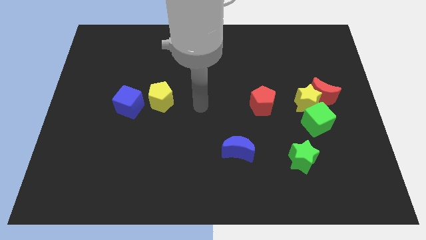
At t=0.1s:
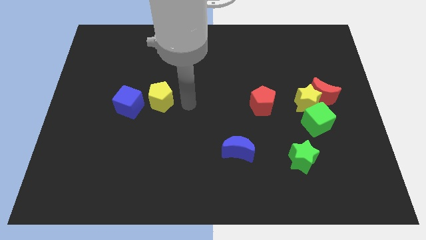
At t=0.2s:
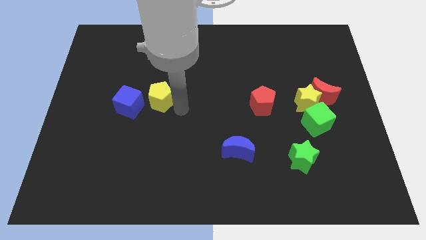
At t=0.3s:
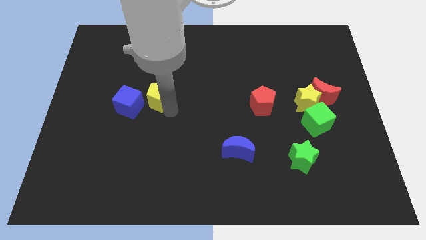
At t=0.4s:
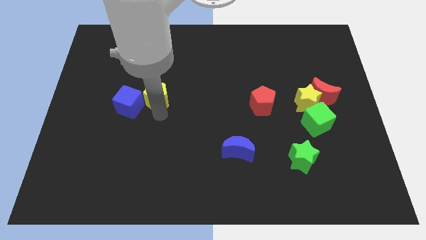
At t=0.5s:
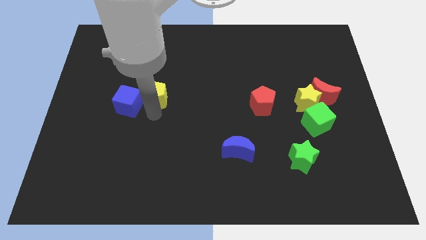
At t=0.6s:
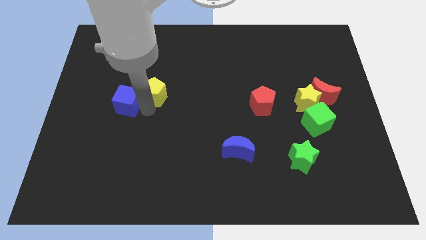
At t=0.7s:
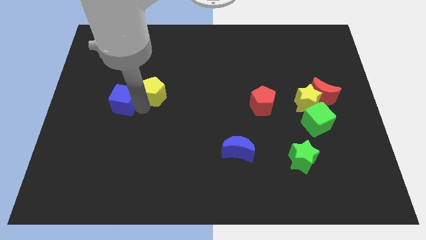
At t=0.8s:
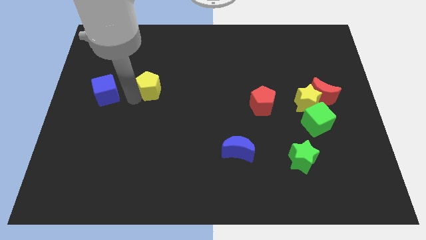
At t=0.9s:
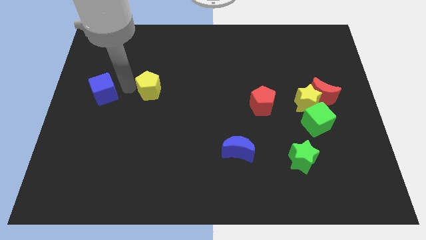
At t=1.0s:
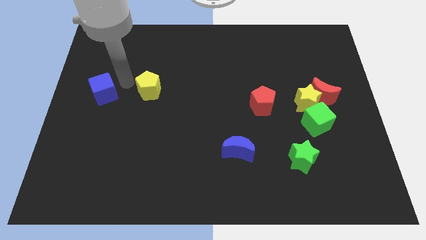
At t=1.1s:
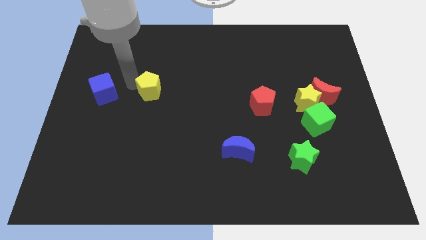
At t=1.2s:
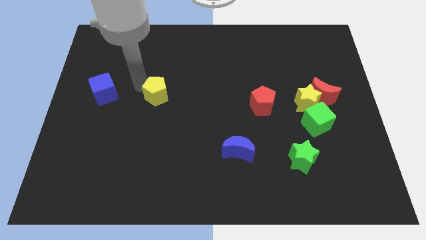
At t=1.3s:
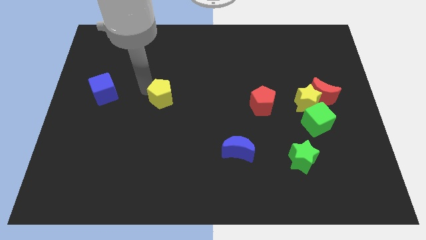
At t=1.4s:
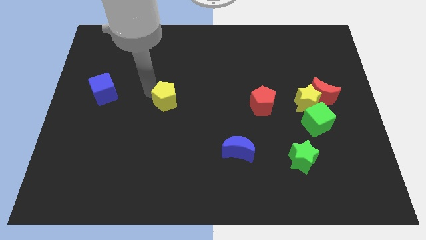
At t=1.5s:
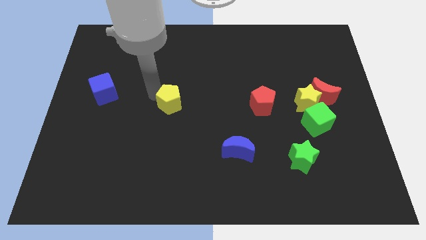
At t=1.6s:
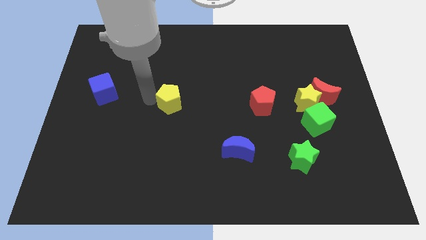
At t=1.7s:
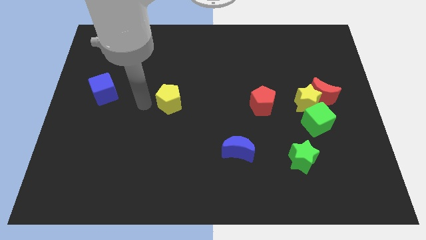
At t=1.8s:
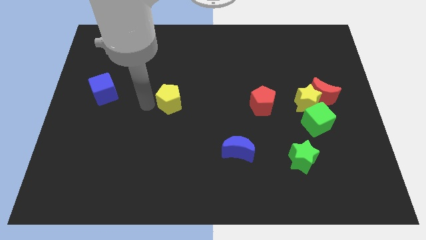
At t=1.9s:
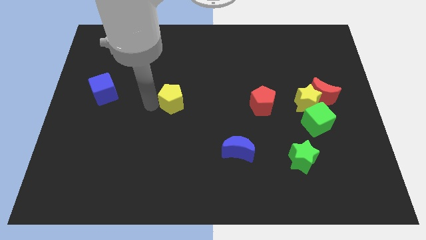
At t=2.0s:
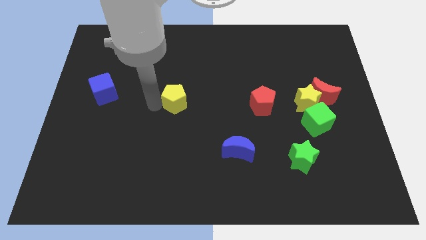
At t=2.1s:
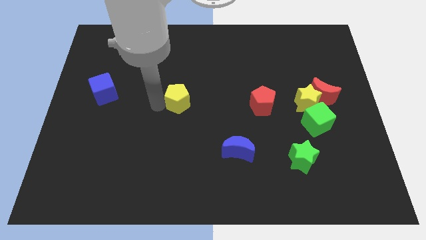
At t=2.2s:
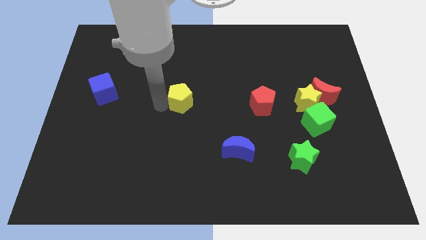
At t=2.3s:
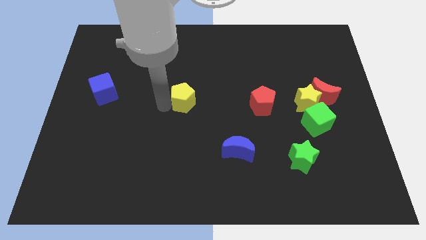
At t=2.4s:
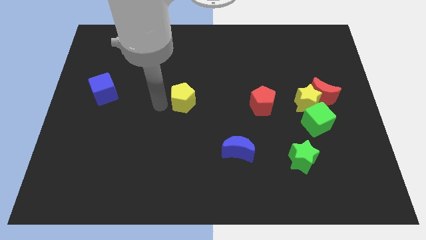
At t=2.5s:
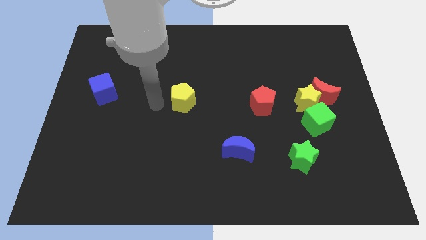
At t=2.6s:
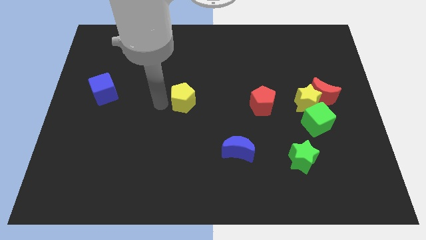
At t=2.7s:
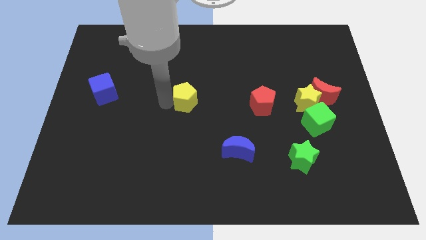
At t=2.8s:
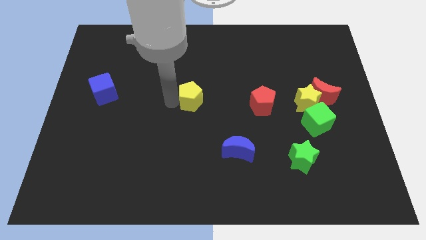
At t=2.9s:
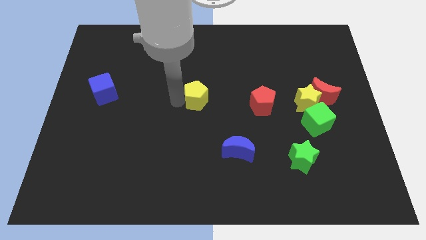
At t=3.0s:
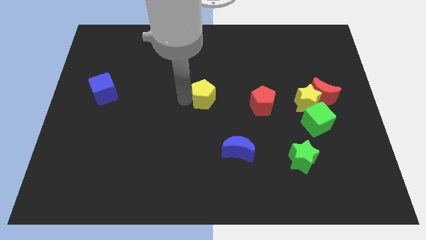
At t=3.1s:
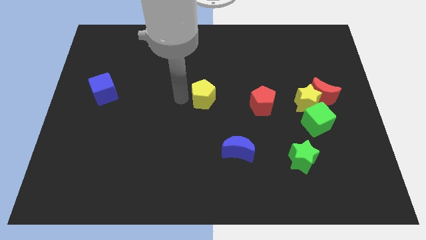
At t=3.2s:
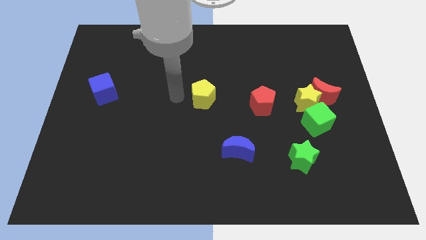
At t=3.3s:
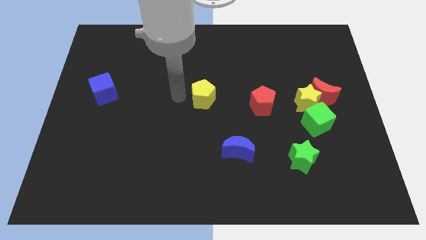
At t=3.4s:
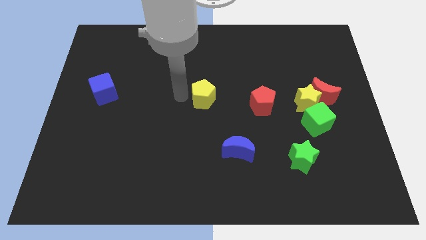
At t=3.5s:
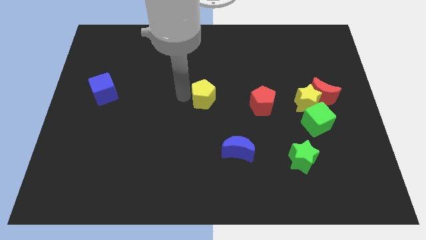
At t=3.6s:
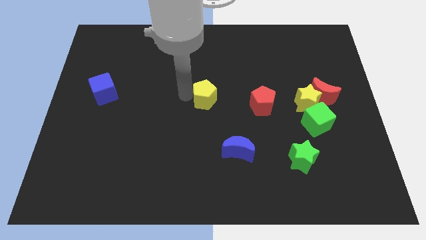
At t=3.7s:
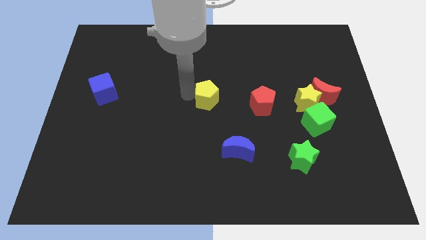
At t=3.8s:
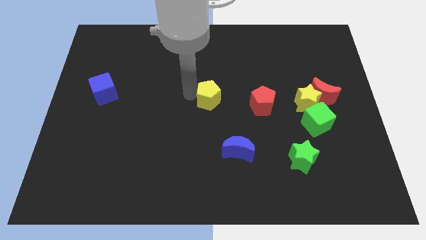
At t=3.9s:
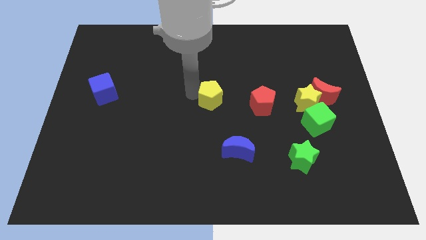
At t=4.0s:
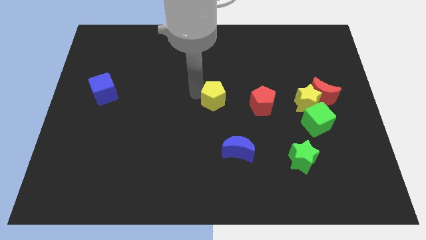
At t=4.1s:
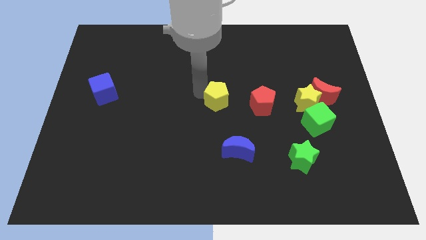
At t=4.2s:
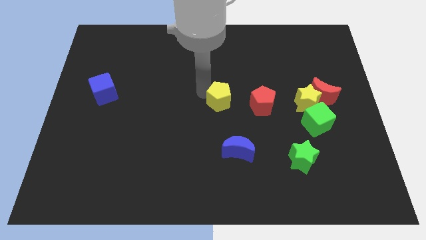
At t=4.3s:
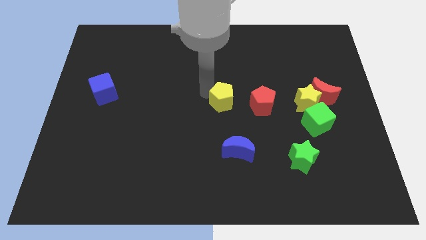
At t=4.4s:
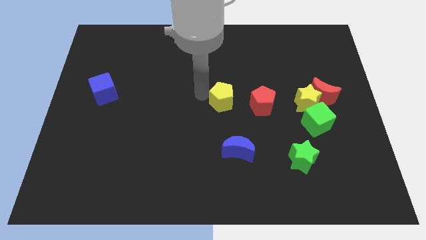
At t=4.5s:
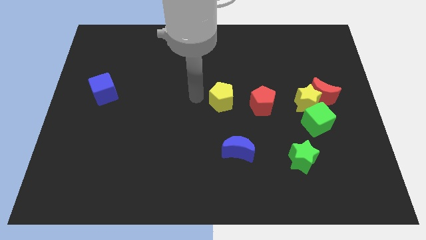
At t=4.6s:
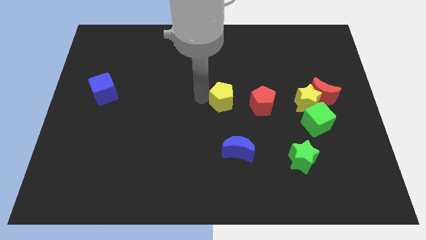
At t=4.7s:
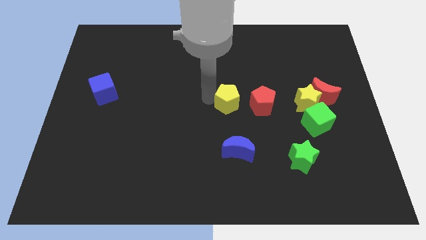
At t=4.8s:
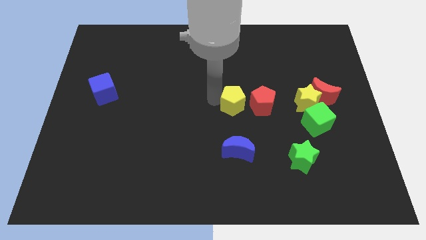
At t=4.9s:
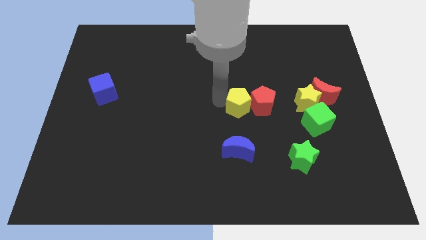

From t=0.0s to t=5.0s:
move the yellow pentagon next to the red pentagon

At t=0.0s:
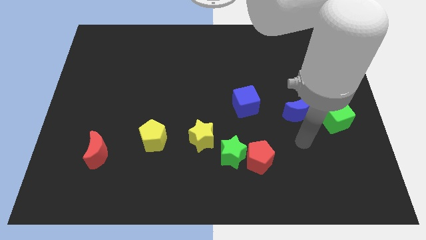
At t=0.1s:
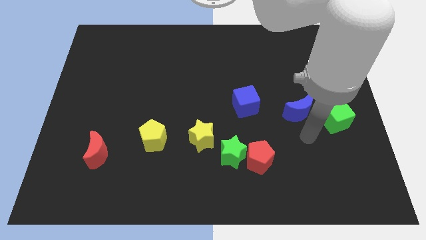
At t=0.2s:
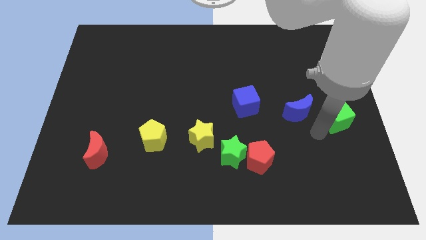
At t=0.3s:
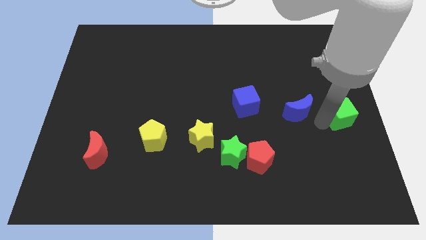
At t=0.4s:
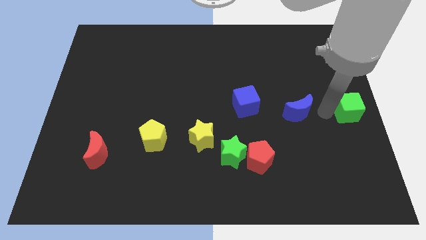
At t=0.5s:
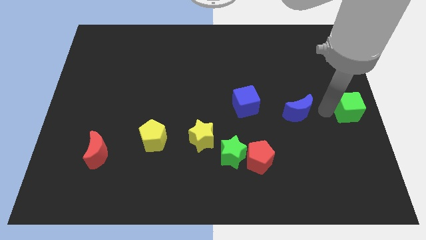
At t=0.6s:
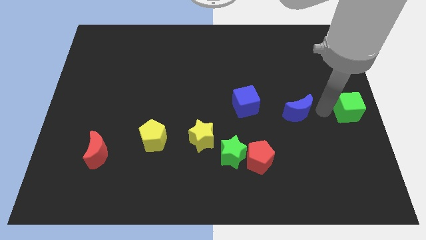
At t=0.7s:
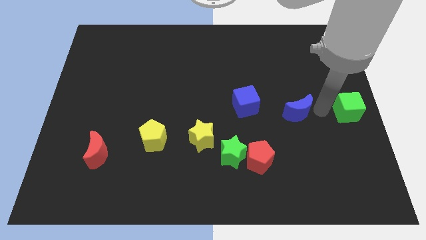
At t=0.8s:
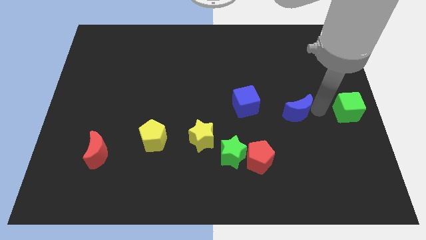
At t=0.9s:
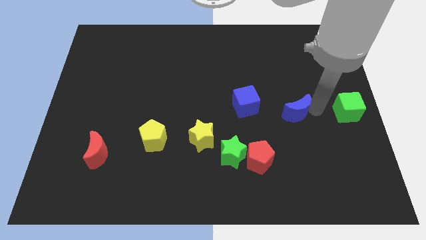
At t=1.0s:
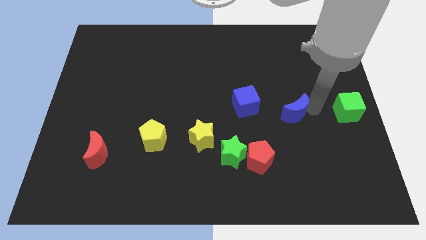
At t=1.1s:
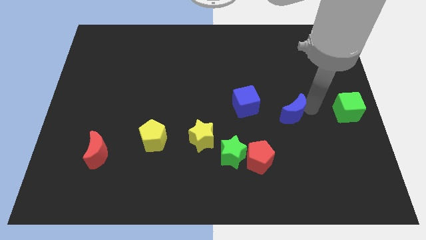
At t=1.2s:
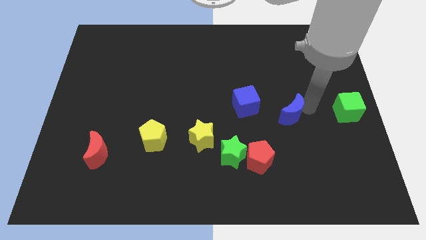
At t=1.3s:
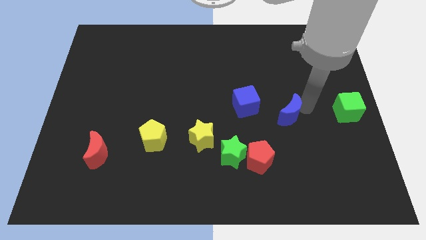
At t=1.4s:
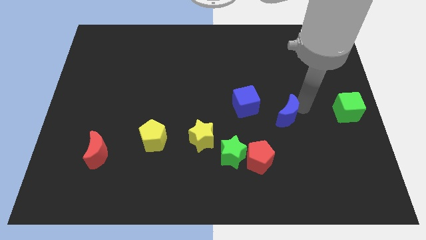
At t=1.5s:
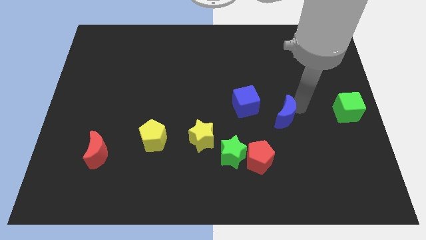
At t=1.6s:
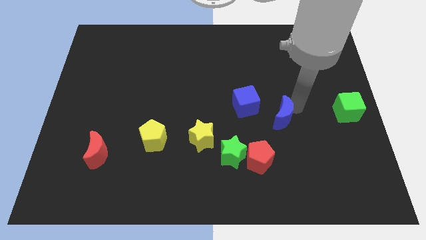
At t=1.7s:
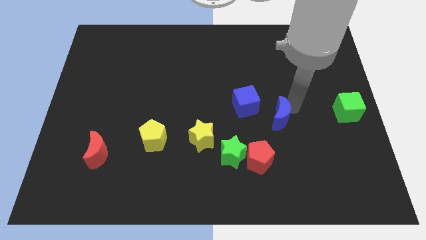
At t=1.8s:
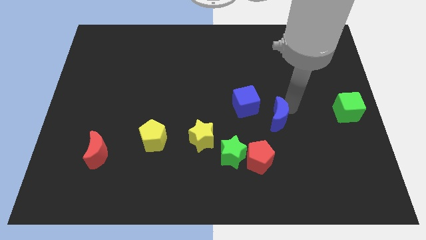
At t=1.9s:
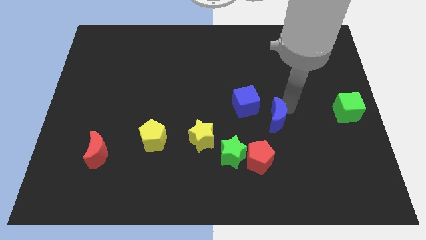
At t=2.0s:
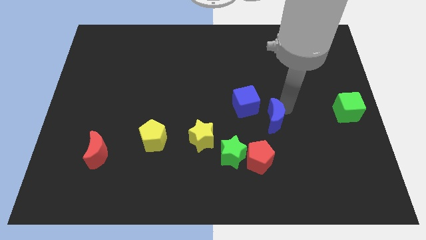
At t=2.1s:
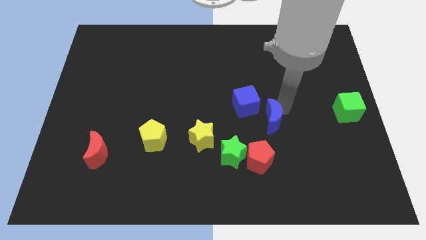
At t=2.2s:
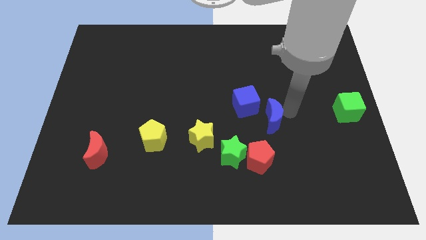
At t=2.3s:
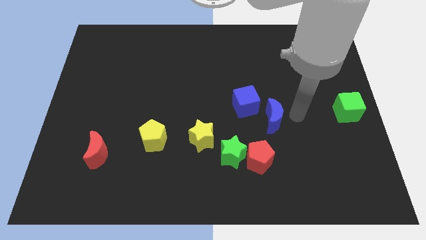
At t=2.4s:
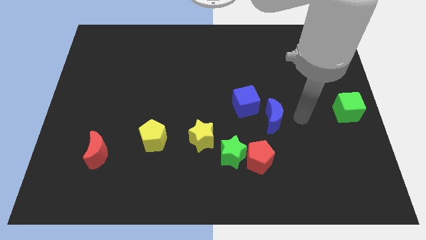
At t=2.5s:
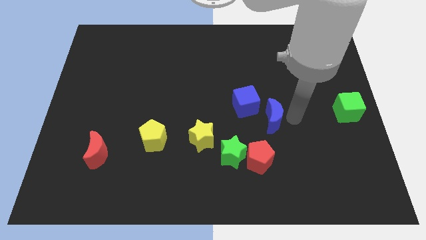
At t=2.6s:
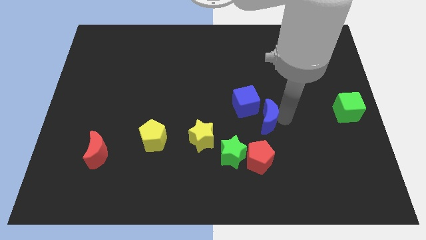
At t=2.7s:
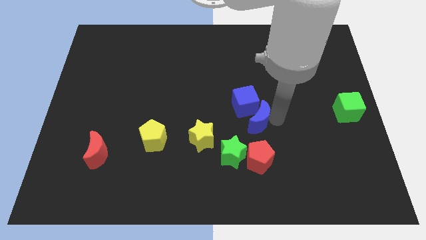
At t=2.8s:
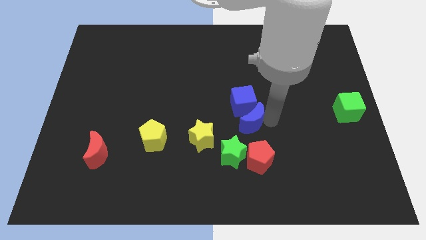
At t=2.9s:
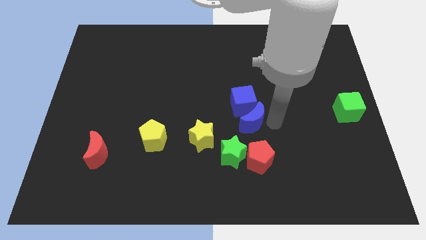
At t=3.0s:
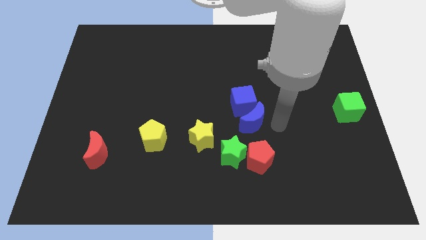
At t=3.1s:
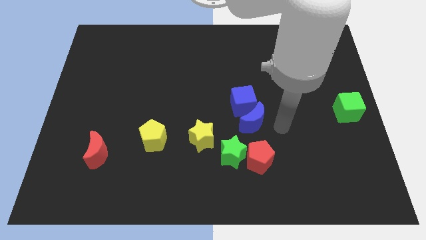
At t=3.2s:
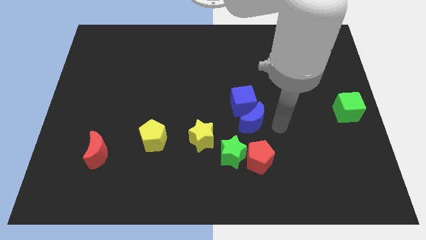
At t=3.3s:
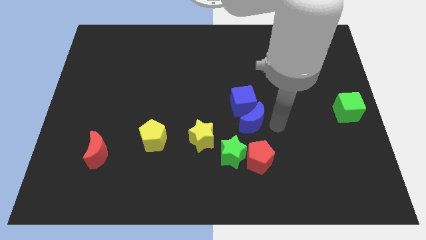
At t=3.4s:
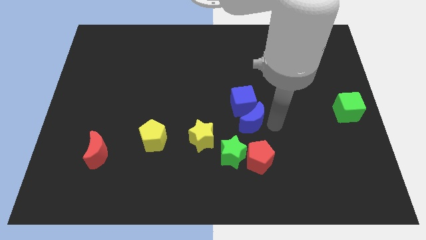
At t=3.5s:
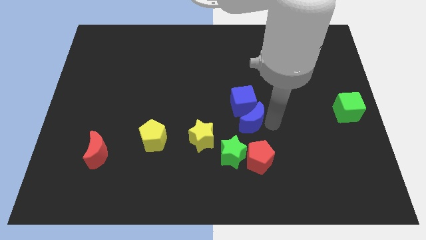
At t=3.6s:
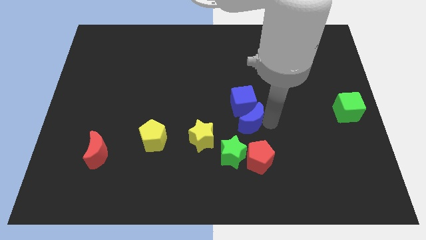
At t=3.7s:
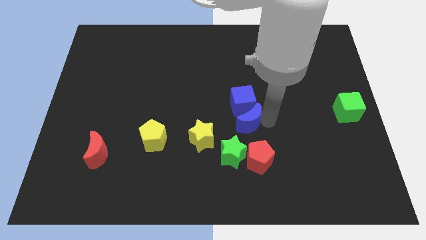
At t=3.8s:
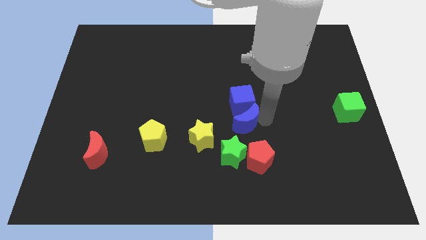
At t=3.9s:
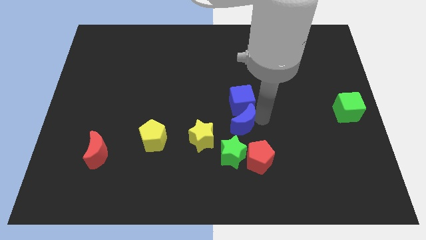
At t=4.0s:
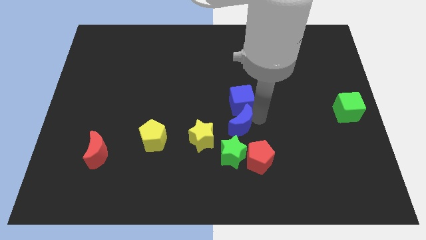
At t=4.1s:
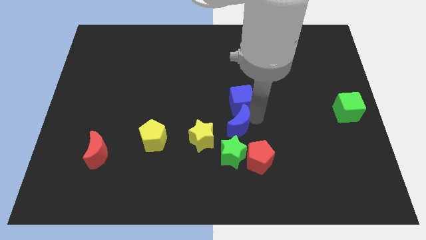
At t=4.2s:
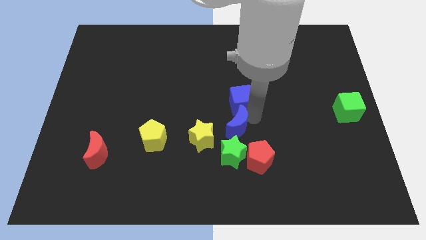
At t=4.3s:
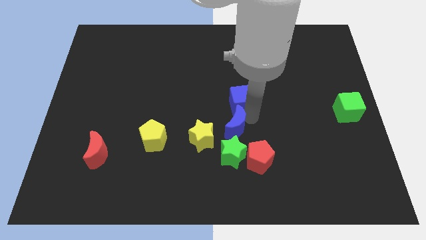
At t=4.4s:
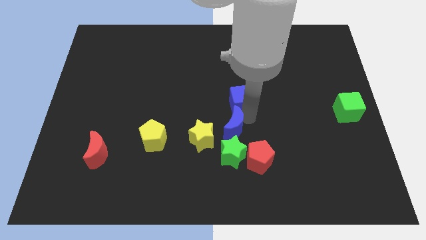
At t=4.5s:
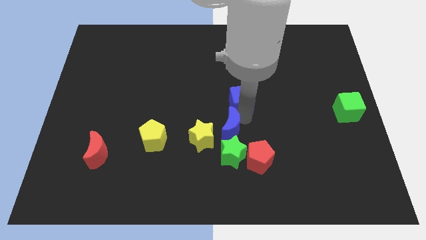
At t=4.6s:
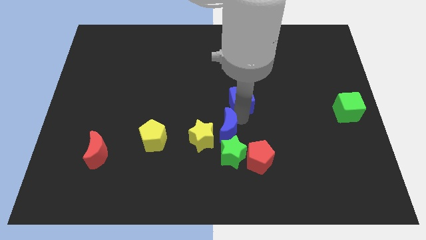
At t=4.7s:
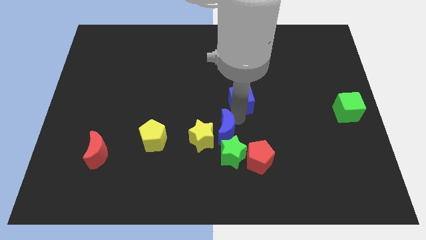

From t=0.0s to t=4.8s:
put the blue moon towards the yellow star
